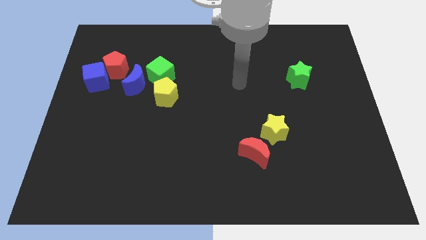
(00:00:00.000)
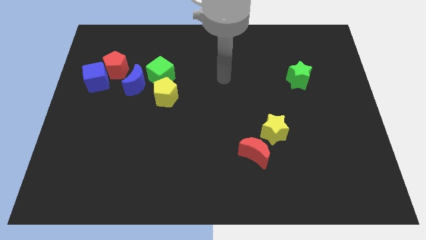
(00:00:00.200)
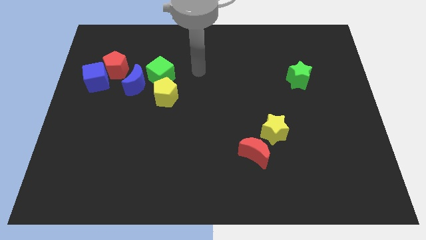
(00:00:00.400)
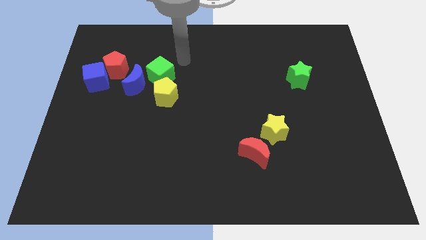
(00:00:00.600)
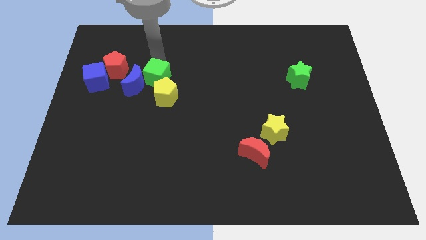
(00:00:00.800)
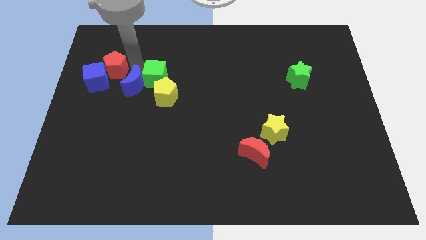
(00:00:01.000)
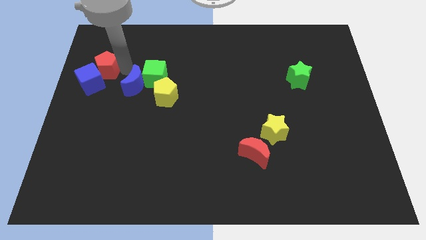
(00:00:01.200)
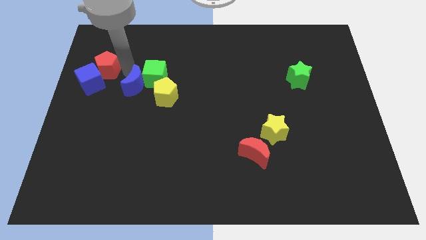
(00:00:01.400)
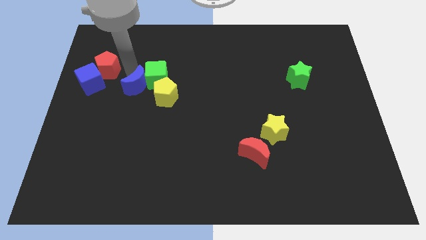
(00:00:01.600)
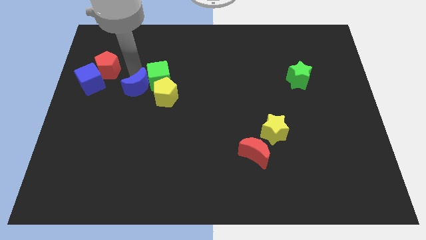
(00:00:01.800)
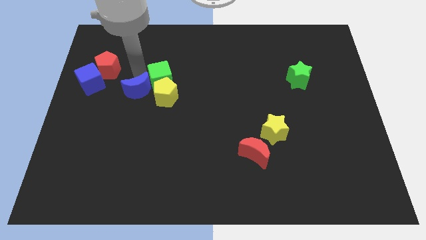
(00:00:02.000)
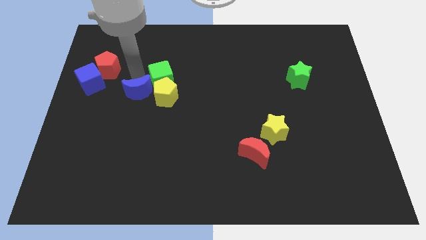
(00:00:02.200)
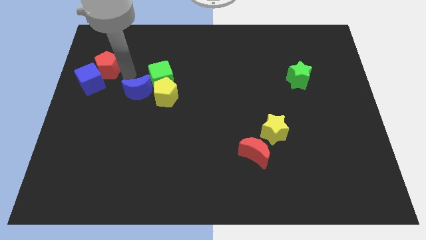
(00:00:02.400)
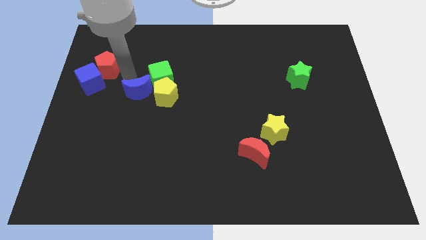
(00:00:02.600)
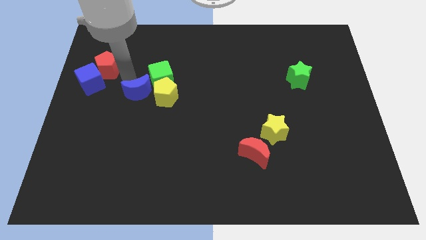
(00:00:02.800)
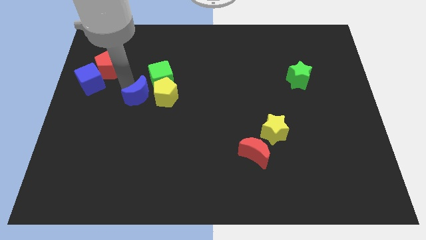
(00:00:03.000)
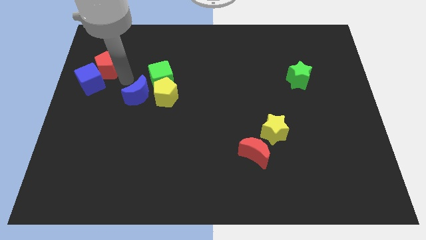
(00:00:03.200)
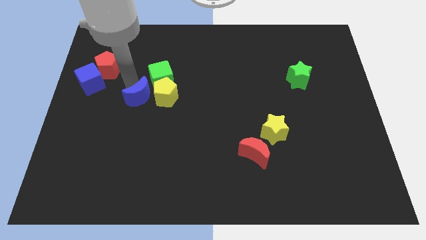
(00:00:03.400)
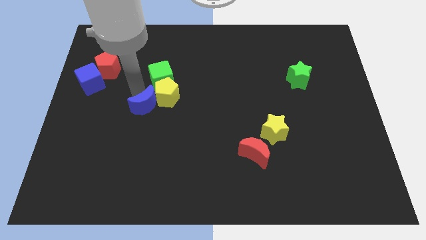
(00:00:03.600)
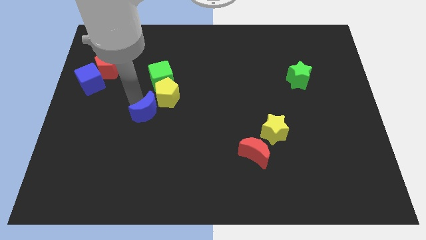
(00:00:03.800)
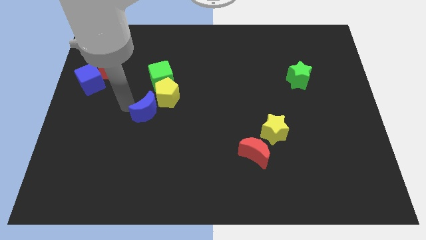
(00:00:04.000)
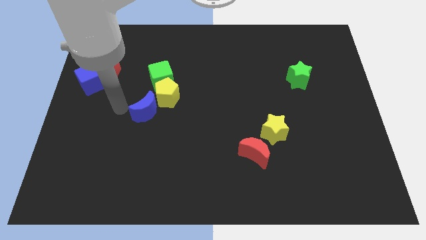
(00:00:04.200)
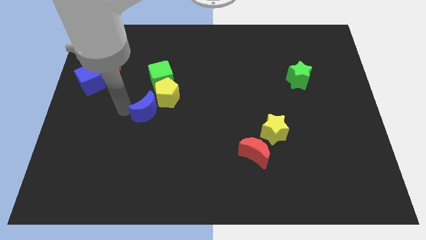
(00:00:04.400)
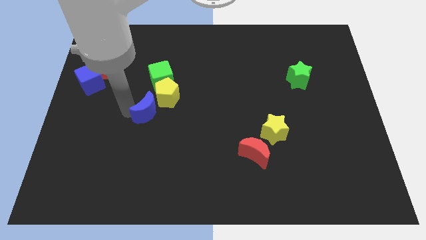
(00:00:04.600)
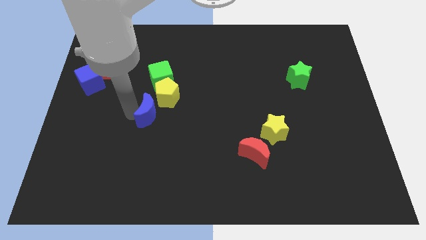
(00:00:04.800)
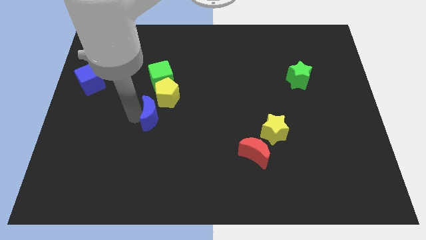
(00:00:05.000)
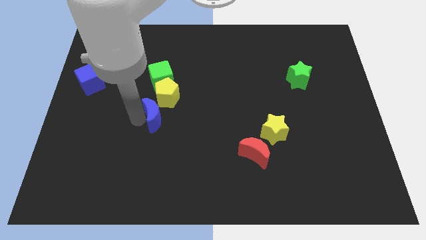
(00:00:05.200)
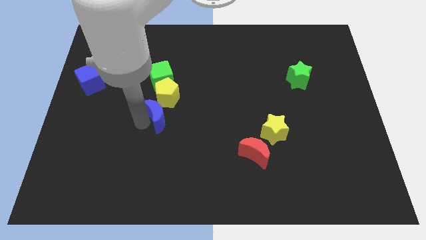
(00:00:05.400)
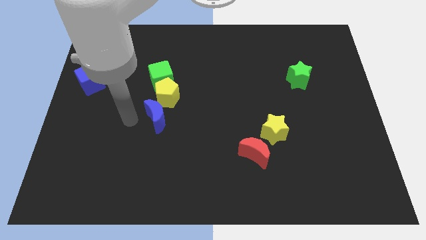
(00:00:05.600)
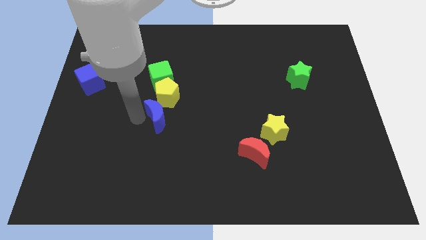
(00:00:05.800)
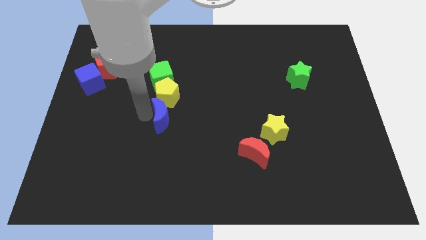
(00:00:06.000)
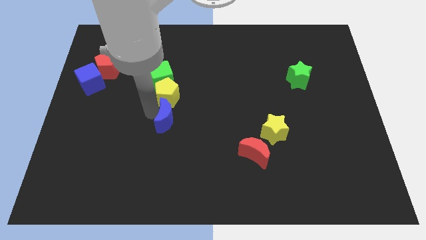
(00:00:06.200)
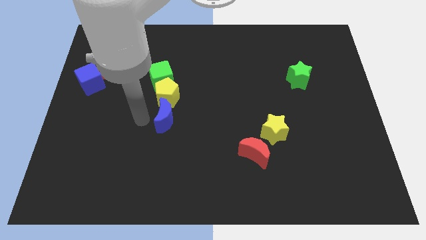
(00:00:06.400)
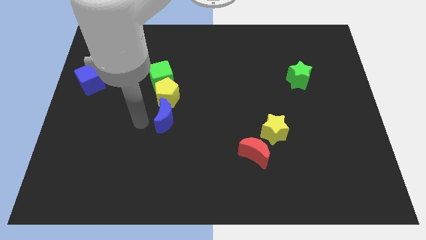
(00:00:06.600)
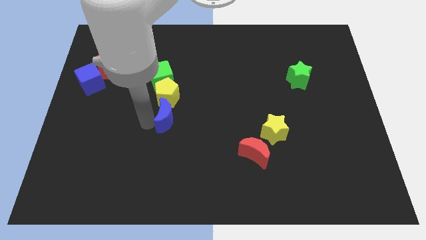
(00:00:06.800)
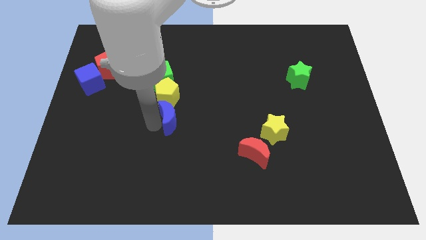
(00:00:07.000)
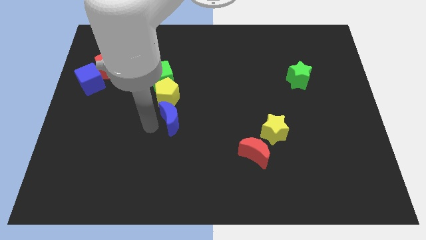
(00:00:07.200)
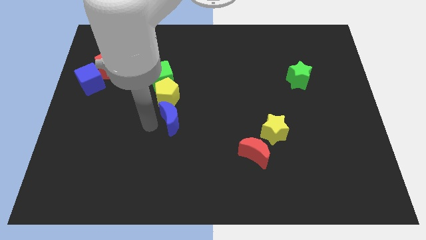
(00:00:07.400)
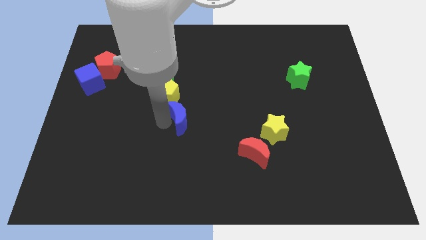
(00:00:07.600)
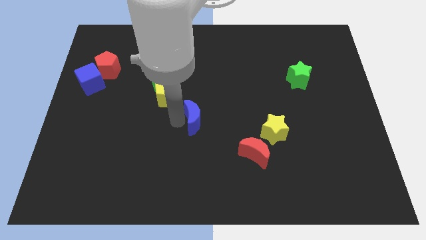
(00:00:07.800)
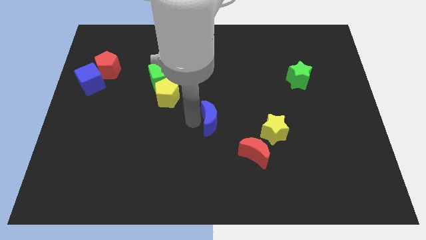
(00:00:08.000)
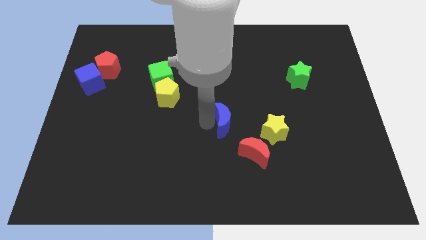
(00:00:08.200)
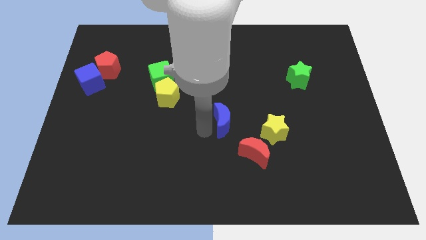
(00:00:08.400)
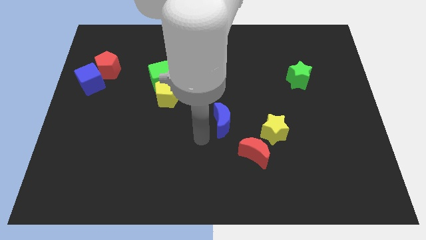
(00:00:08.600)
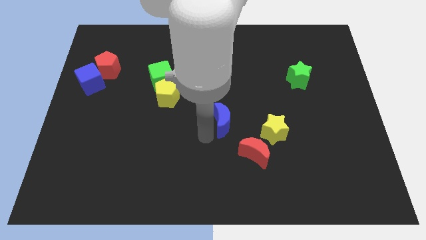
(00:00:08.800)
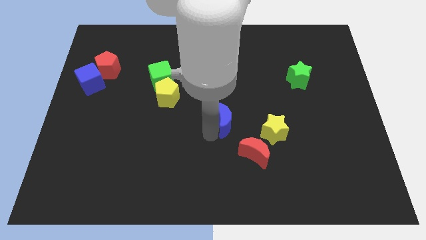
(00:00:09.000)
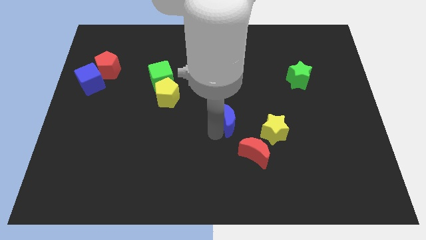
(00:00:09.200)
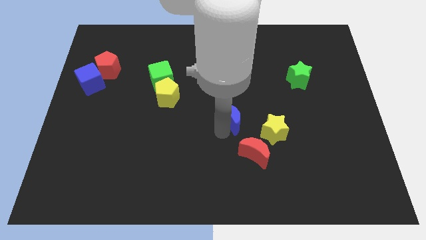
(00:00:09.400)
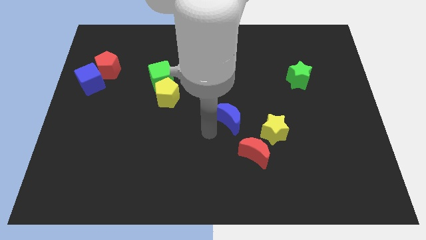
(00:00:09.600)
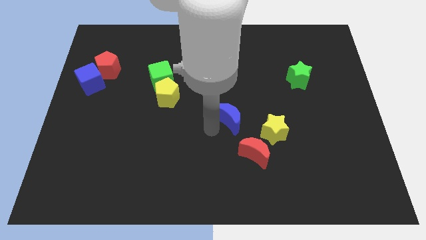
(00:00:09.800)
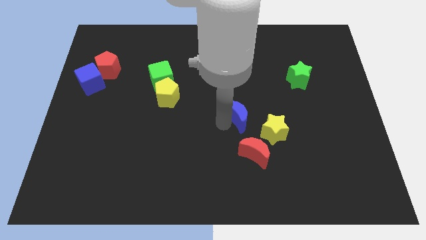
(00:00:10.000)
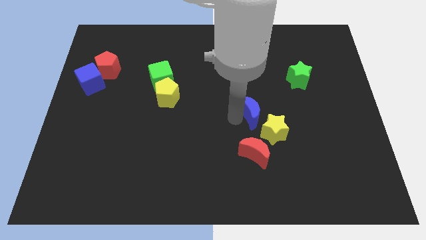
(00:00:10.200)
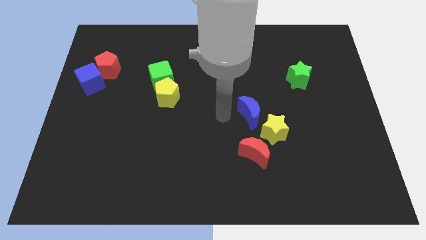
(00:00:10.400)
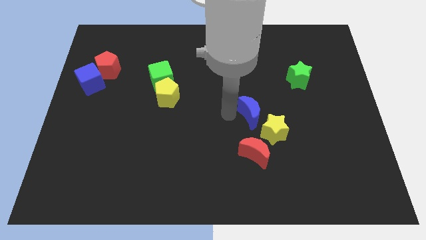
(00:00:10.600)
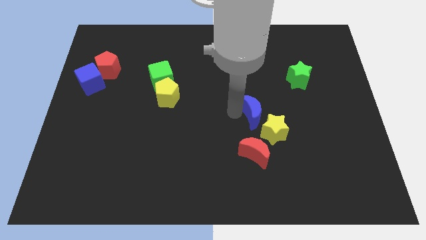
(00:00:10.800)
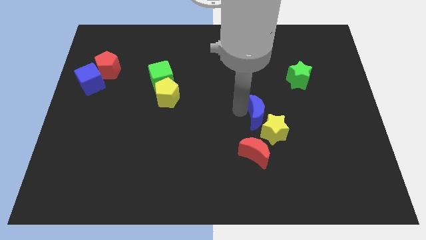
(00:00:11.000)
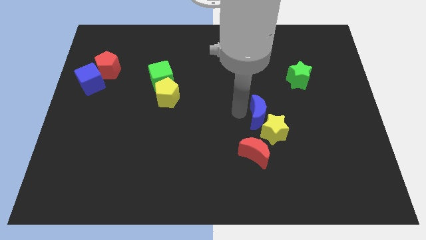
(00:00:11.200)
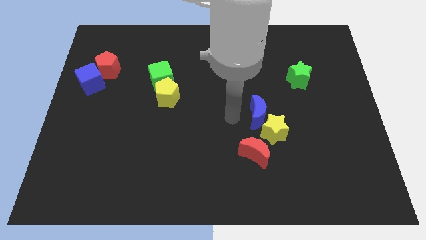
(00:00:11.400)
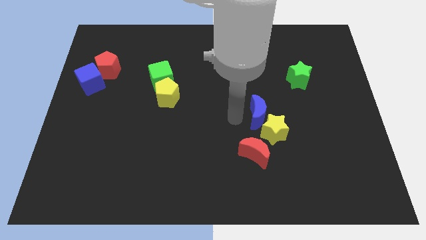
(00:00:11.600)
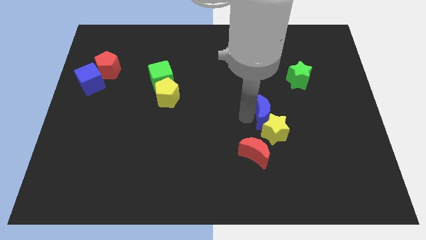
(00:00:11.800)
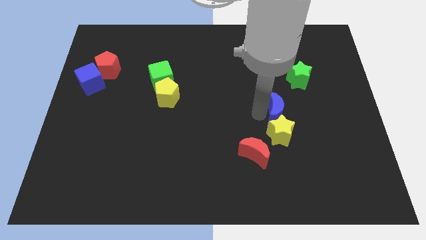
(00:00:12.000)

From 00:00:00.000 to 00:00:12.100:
slide the blue moon diagonally up and to the right of the yellow star

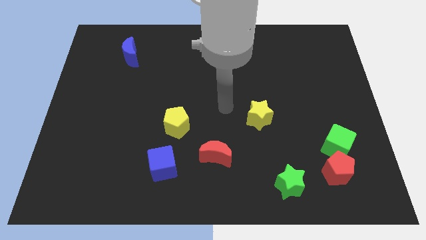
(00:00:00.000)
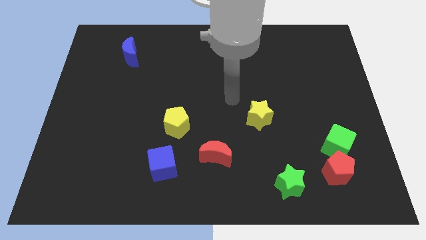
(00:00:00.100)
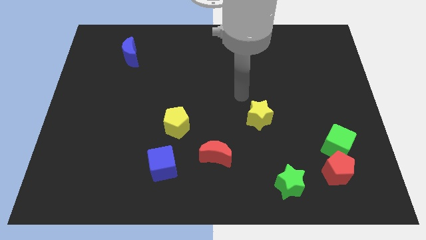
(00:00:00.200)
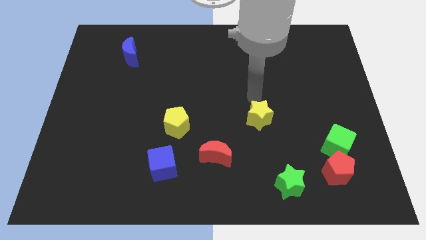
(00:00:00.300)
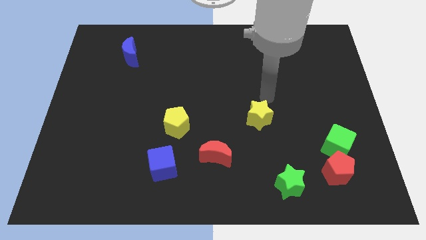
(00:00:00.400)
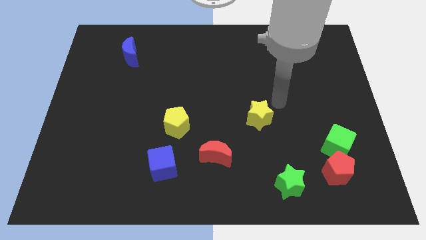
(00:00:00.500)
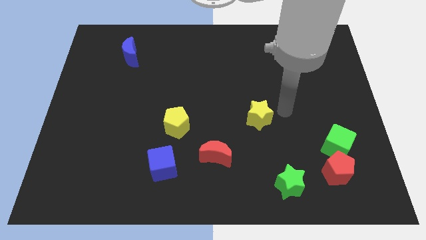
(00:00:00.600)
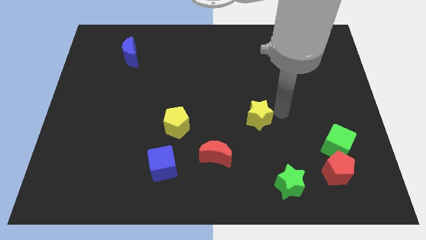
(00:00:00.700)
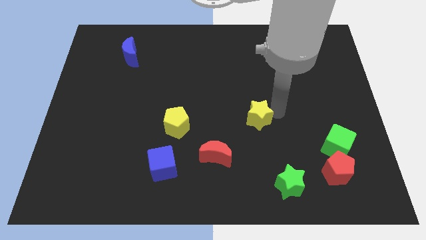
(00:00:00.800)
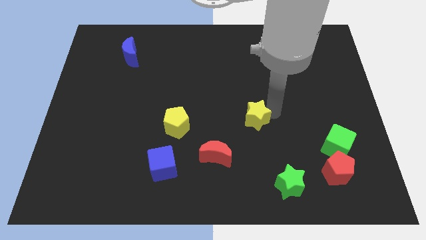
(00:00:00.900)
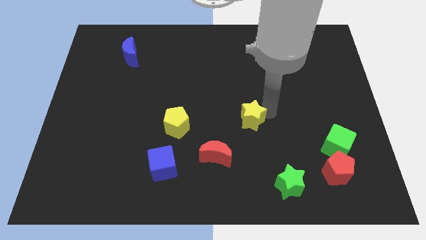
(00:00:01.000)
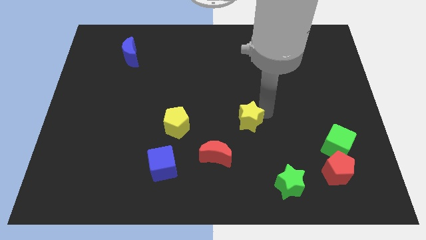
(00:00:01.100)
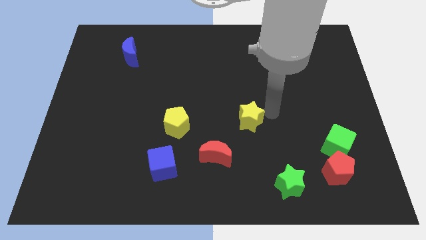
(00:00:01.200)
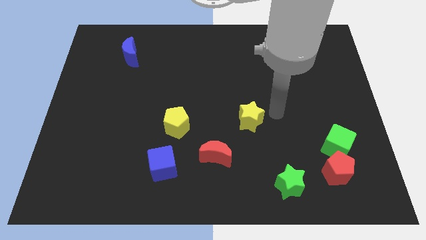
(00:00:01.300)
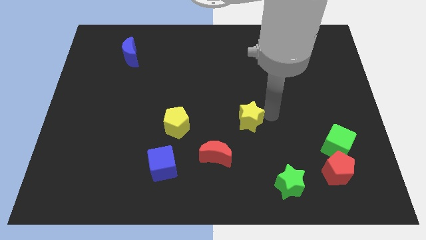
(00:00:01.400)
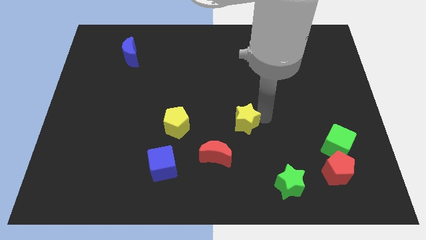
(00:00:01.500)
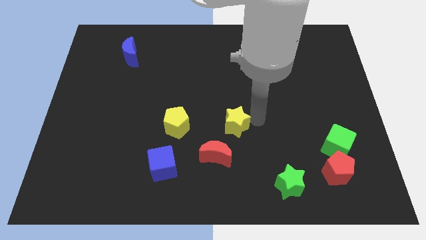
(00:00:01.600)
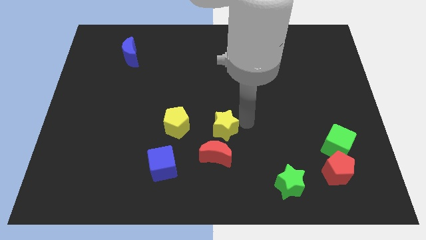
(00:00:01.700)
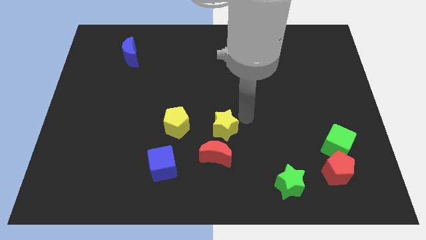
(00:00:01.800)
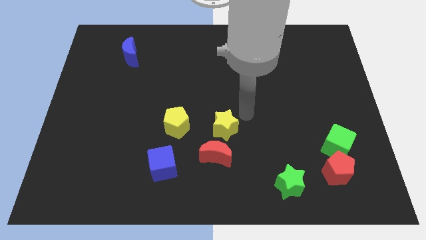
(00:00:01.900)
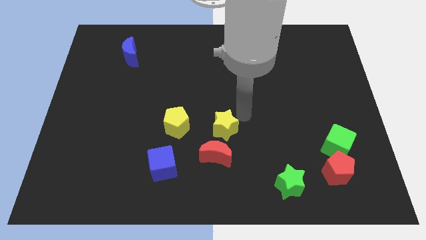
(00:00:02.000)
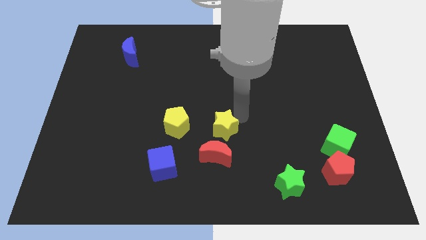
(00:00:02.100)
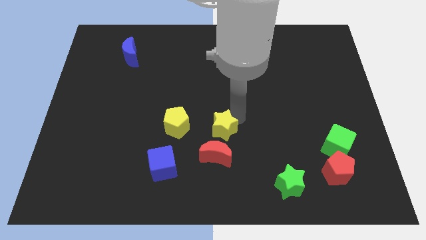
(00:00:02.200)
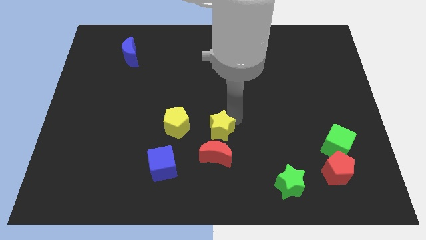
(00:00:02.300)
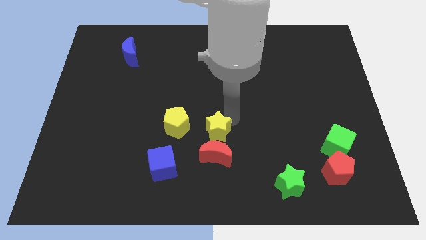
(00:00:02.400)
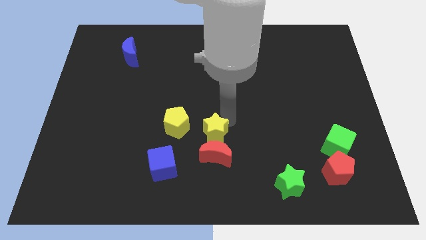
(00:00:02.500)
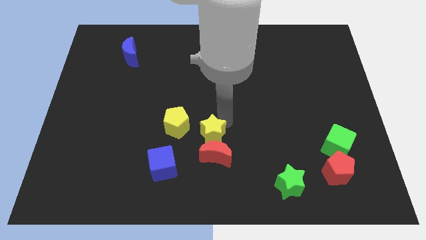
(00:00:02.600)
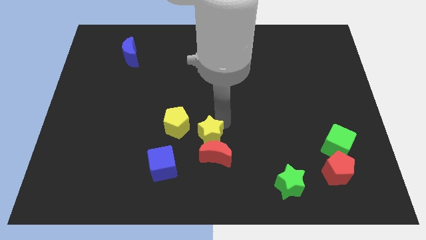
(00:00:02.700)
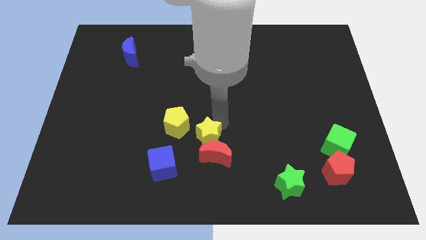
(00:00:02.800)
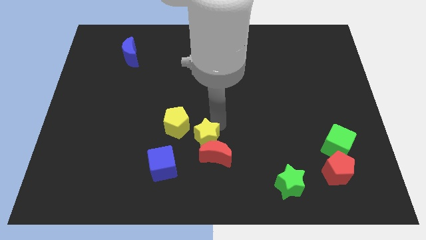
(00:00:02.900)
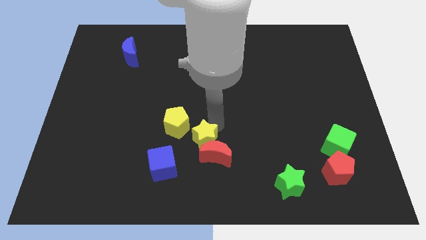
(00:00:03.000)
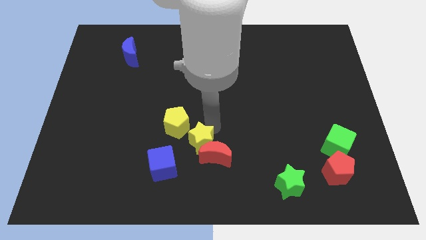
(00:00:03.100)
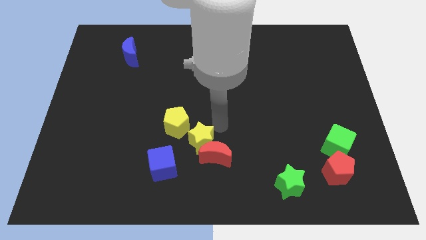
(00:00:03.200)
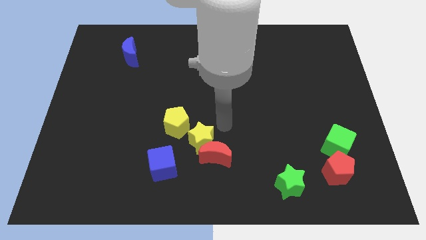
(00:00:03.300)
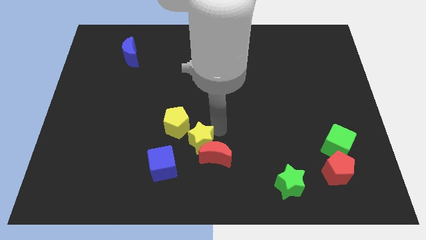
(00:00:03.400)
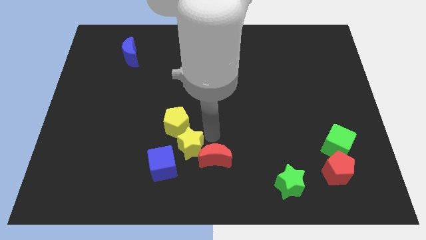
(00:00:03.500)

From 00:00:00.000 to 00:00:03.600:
push the yellow star to the bottom of the yellow pentagon
